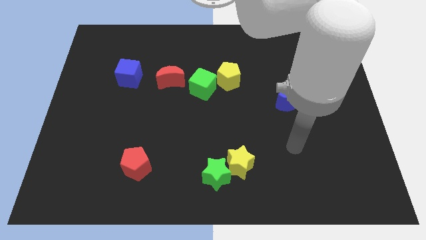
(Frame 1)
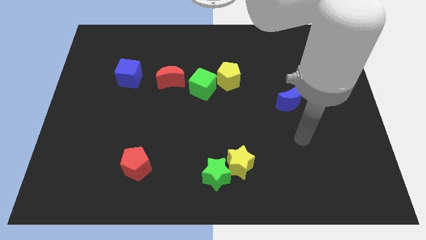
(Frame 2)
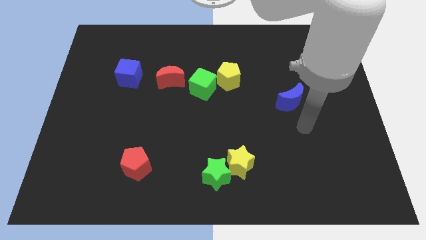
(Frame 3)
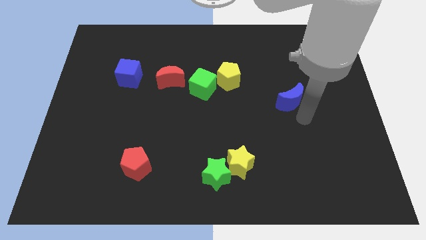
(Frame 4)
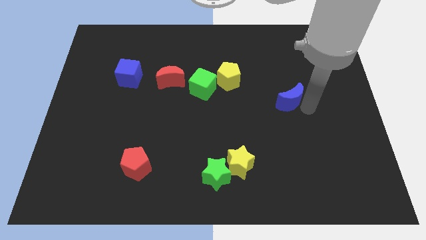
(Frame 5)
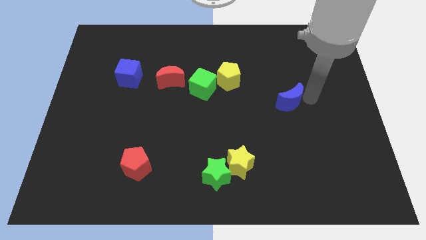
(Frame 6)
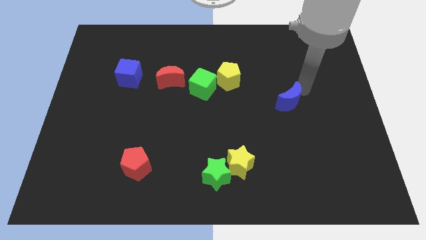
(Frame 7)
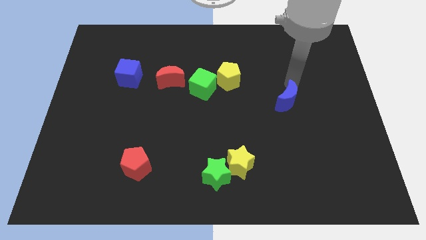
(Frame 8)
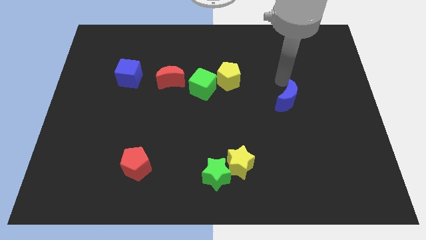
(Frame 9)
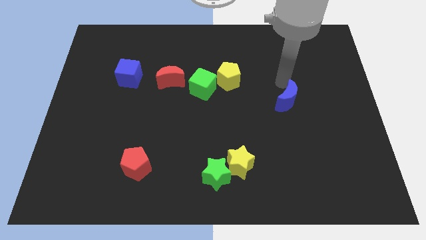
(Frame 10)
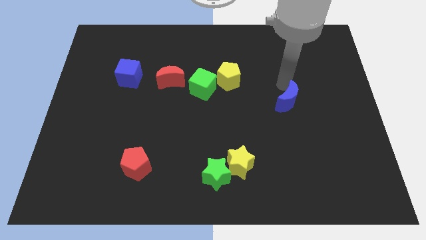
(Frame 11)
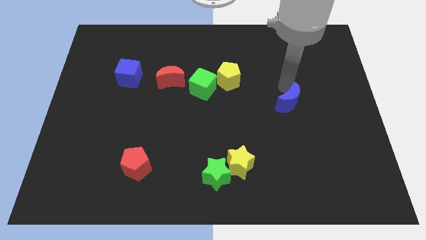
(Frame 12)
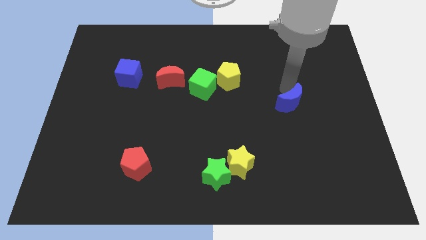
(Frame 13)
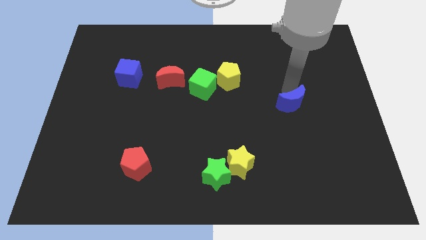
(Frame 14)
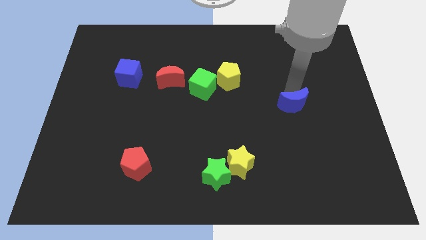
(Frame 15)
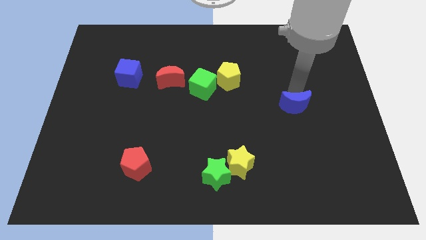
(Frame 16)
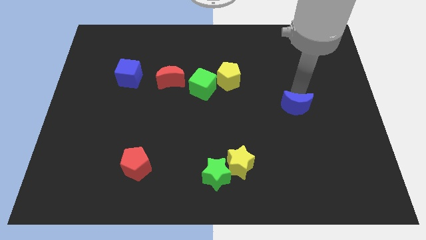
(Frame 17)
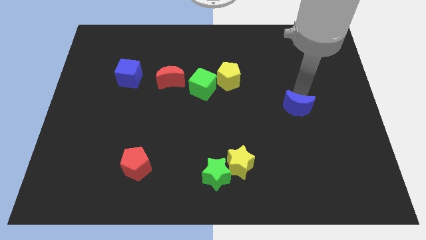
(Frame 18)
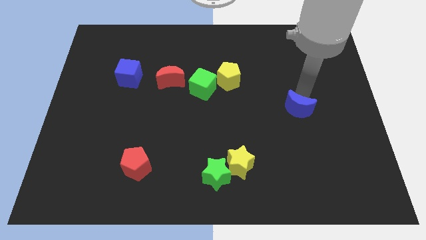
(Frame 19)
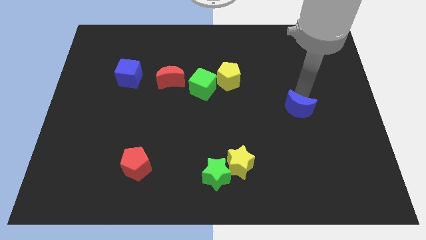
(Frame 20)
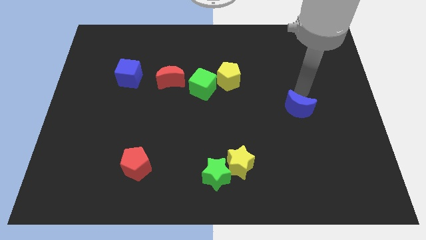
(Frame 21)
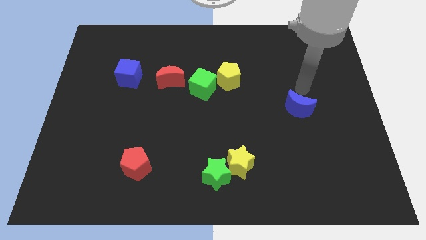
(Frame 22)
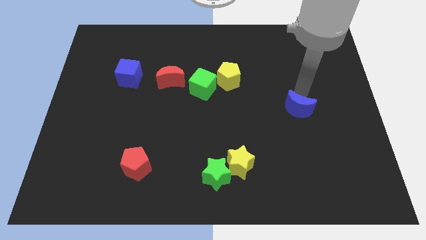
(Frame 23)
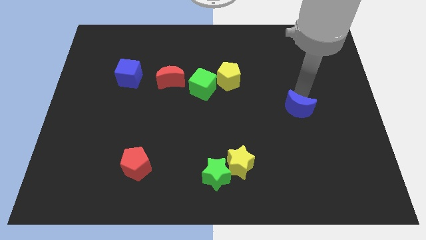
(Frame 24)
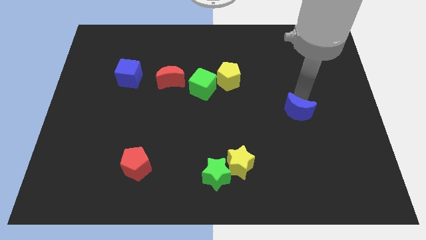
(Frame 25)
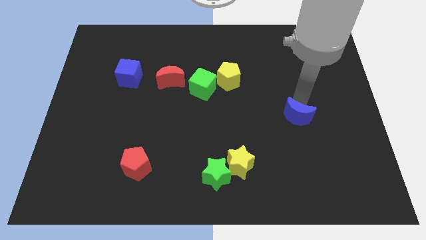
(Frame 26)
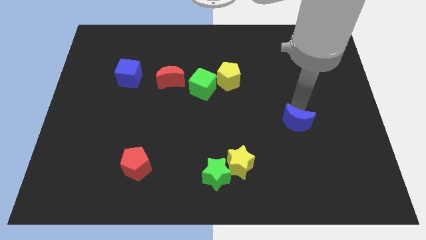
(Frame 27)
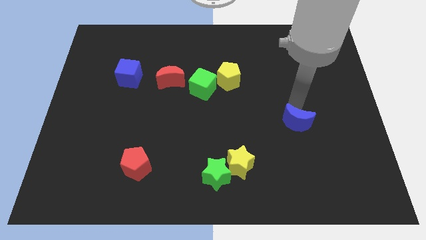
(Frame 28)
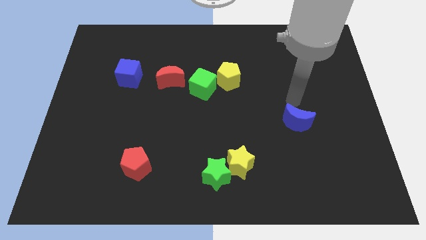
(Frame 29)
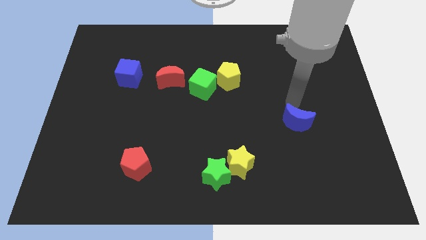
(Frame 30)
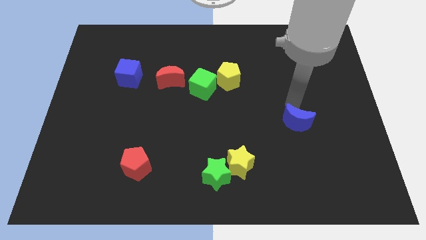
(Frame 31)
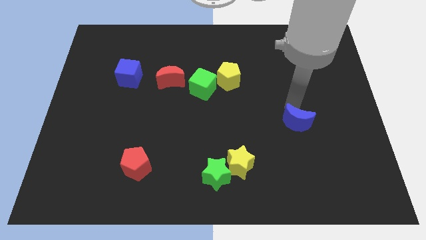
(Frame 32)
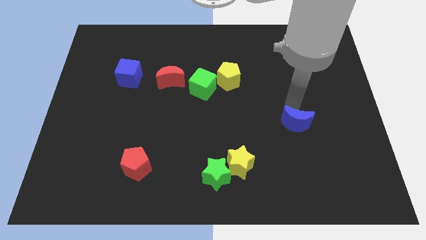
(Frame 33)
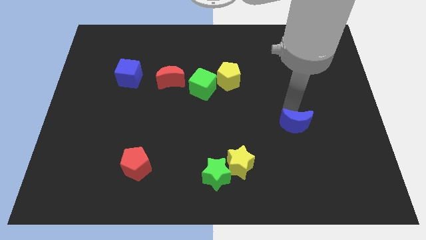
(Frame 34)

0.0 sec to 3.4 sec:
slightly move the blue moon downwards

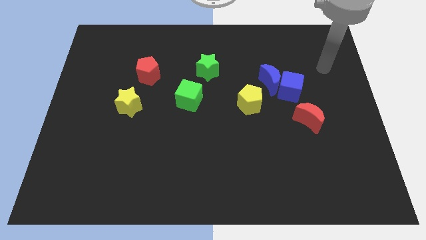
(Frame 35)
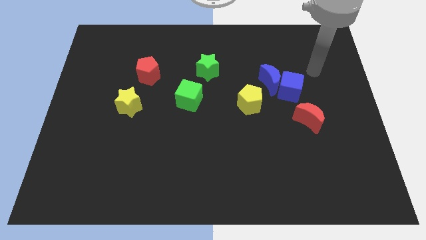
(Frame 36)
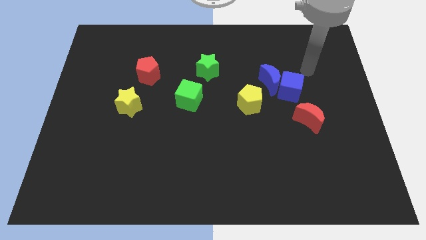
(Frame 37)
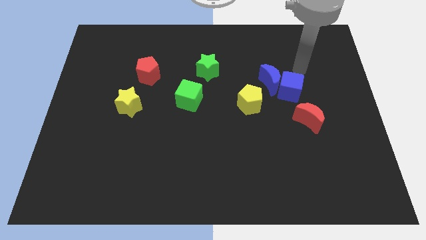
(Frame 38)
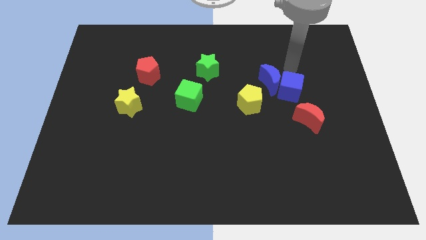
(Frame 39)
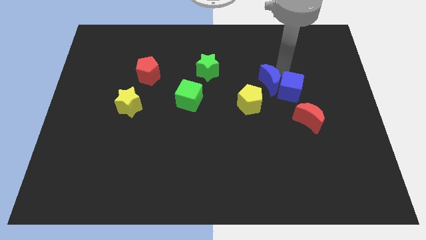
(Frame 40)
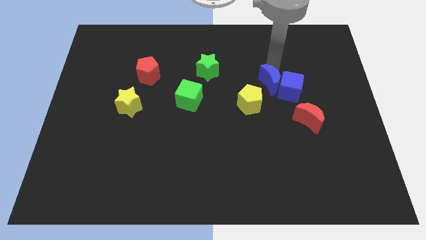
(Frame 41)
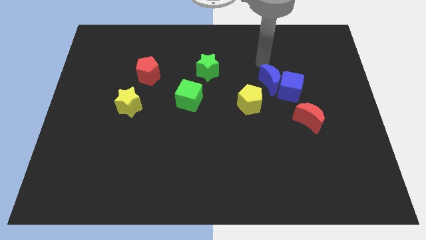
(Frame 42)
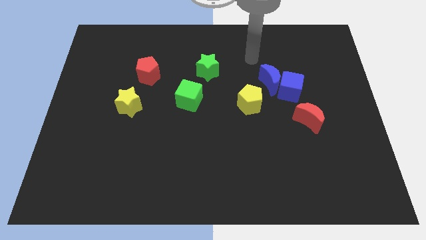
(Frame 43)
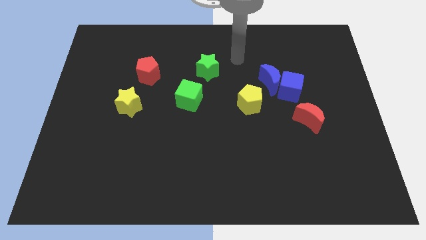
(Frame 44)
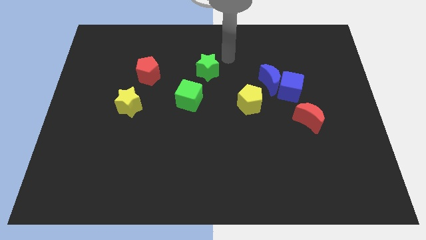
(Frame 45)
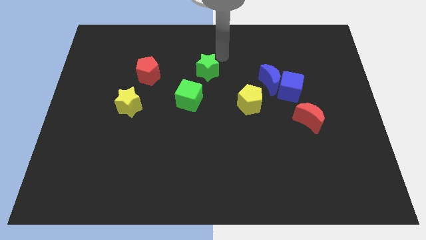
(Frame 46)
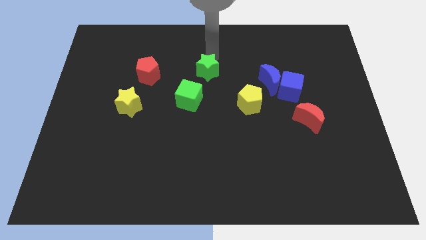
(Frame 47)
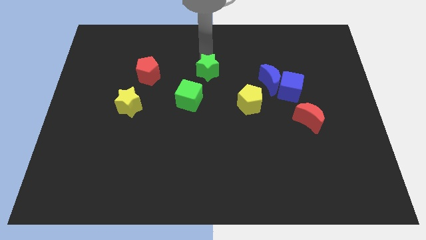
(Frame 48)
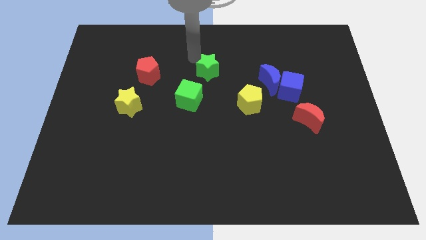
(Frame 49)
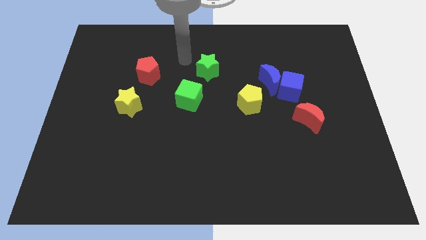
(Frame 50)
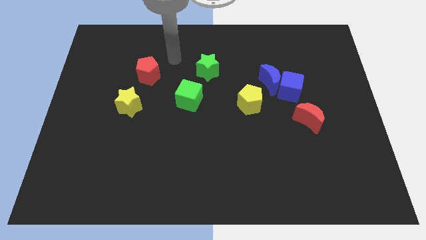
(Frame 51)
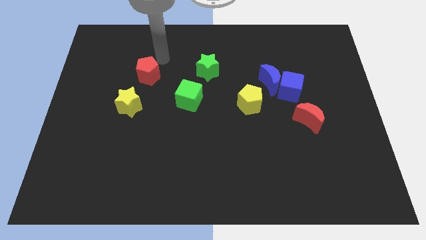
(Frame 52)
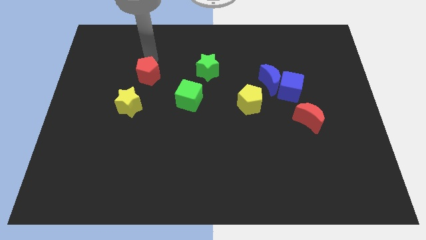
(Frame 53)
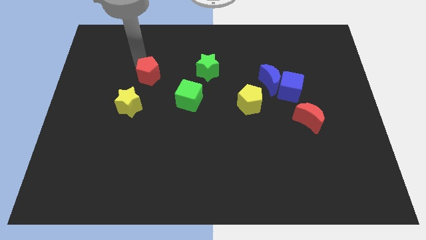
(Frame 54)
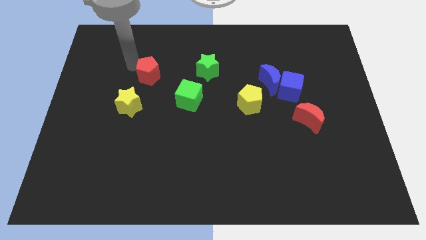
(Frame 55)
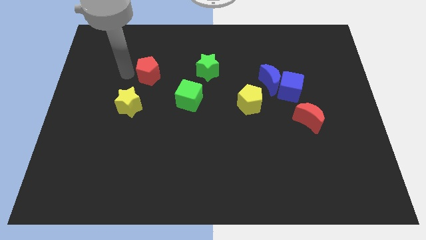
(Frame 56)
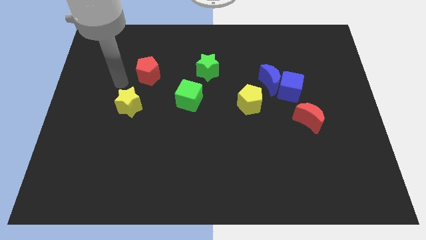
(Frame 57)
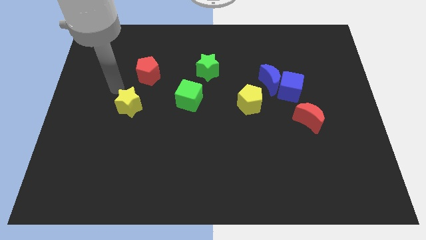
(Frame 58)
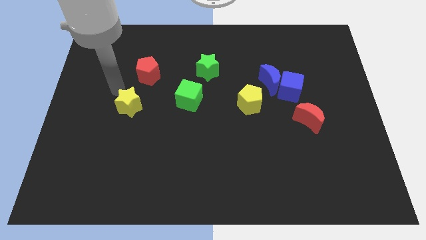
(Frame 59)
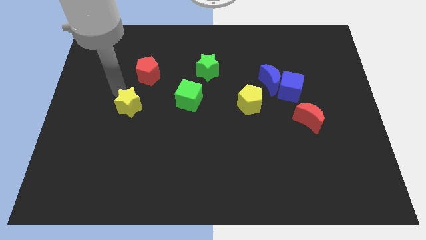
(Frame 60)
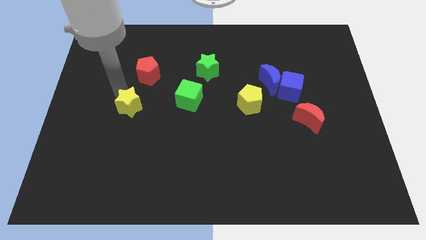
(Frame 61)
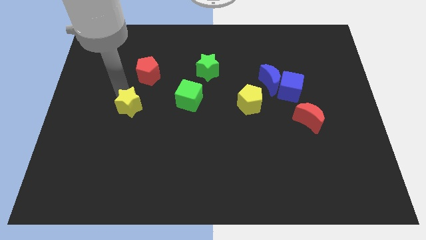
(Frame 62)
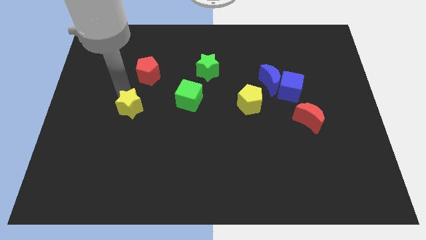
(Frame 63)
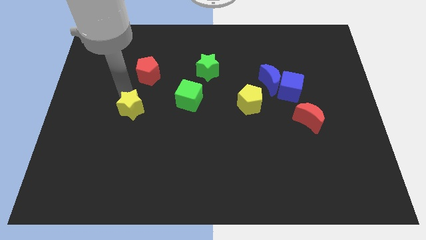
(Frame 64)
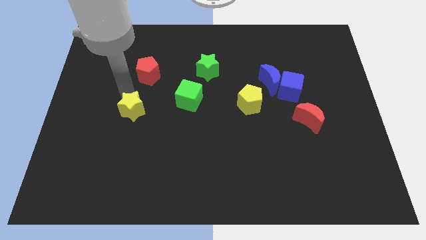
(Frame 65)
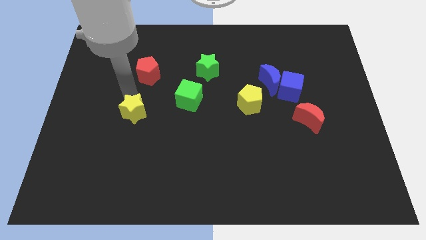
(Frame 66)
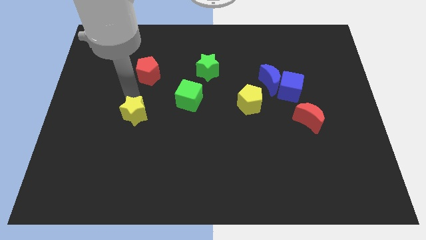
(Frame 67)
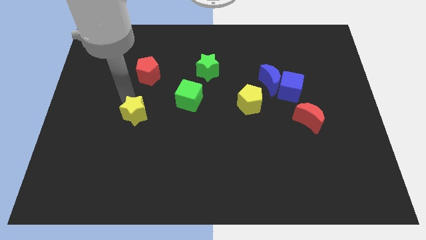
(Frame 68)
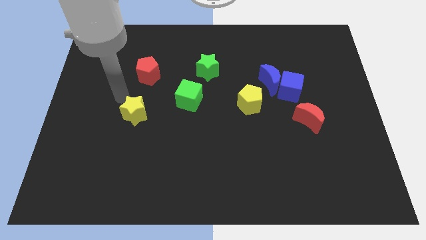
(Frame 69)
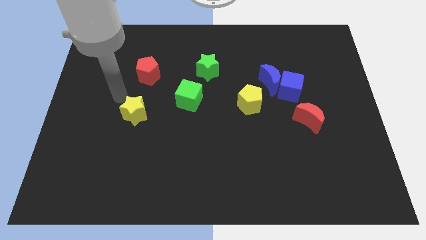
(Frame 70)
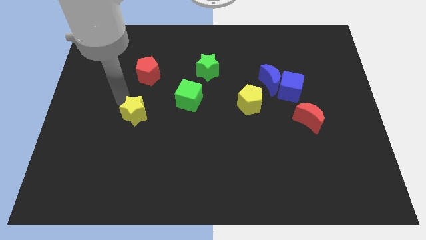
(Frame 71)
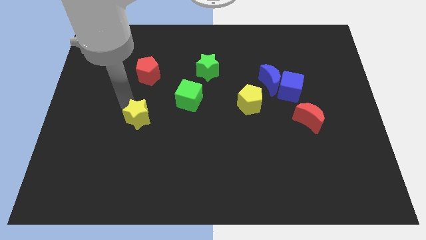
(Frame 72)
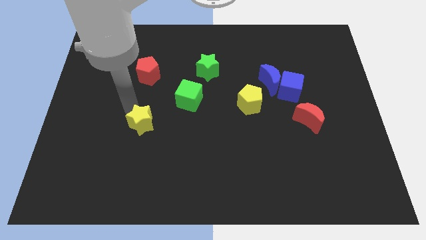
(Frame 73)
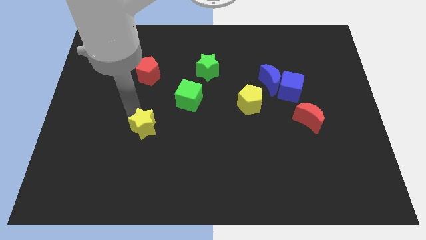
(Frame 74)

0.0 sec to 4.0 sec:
slightly push the yellow star down and right

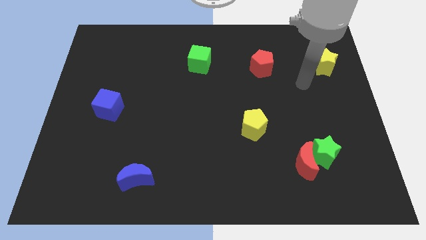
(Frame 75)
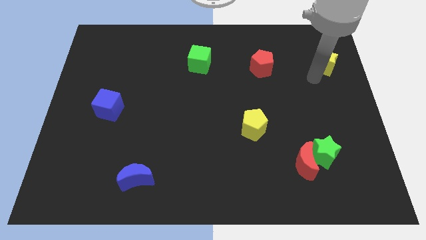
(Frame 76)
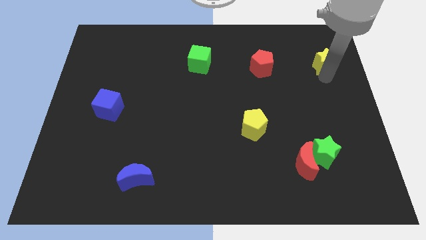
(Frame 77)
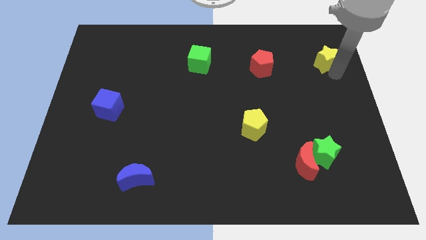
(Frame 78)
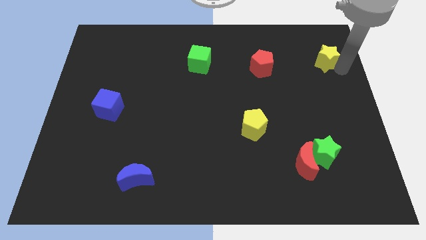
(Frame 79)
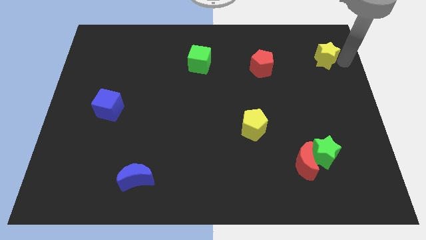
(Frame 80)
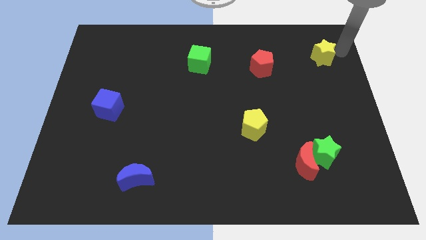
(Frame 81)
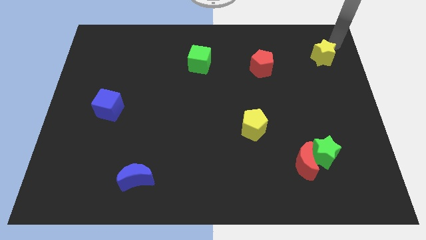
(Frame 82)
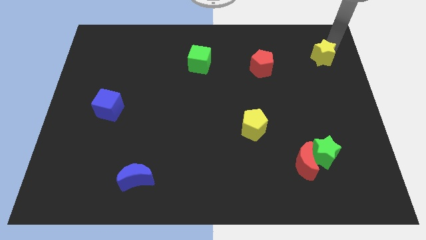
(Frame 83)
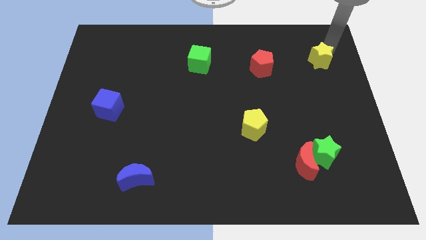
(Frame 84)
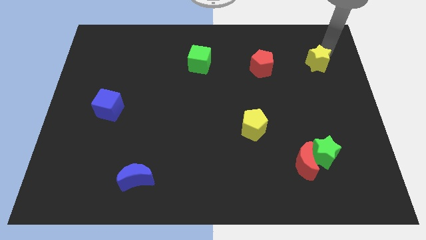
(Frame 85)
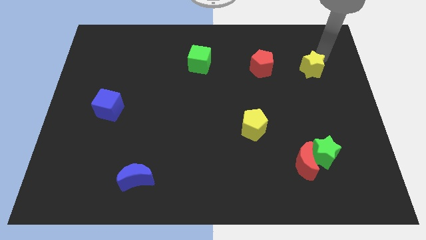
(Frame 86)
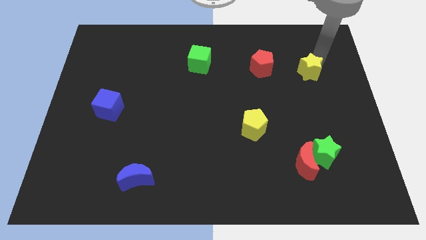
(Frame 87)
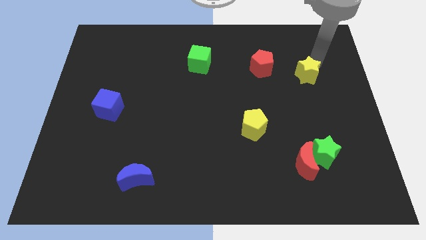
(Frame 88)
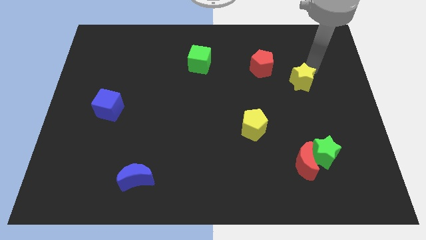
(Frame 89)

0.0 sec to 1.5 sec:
slide the yellow star a little bit downwards and to the left
